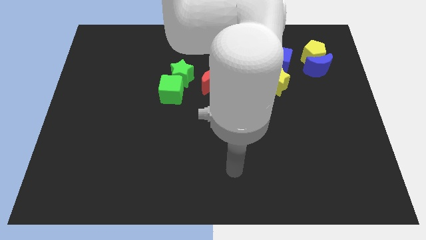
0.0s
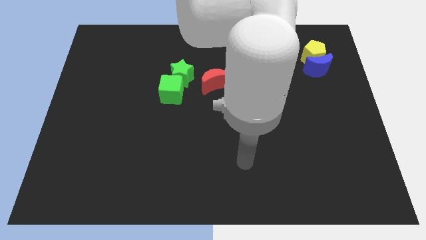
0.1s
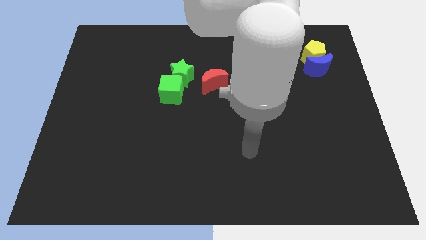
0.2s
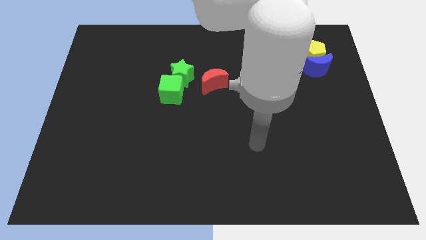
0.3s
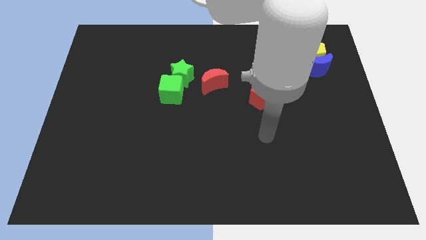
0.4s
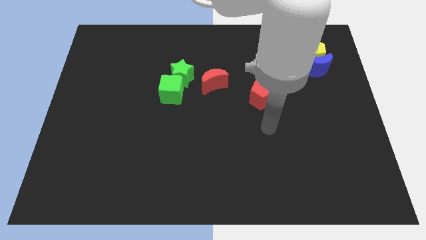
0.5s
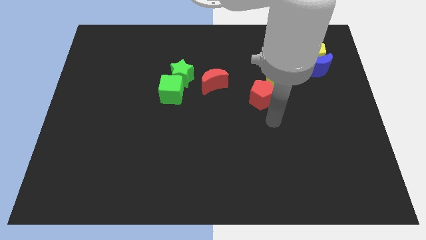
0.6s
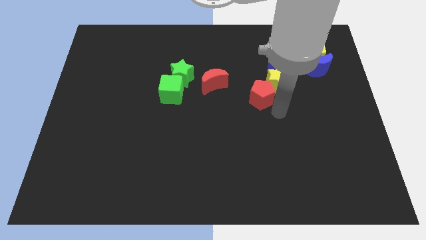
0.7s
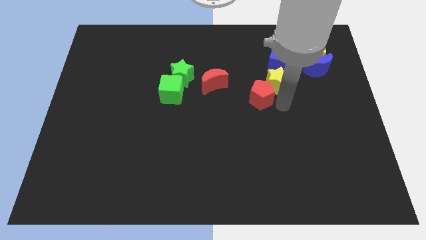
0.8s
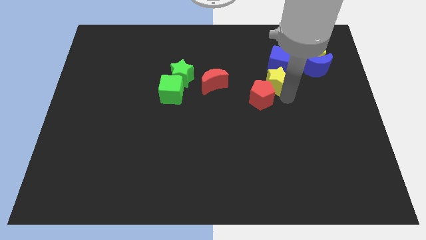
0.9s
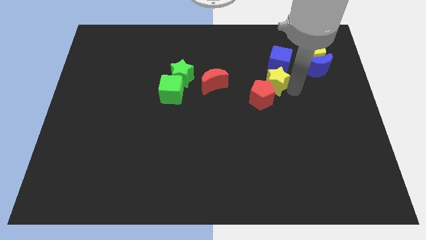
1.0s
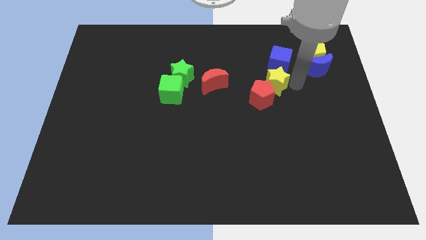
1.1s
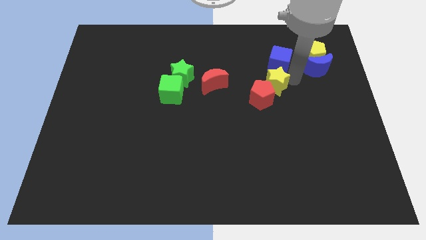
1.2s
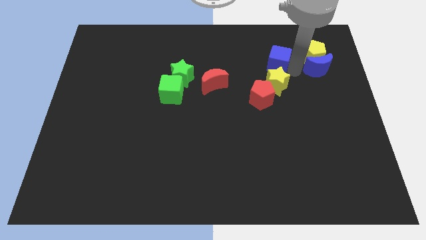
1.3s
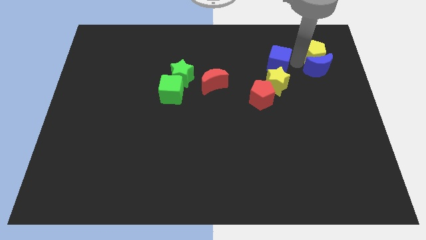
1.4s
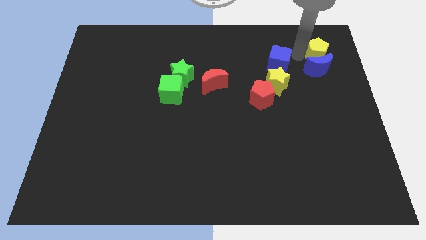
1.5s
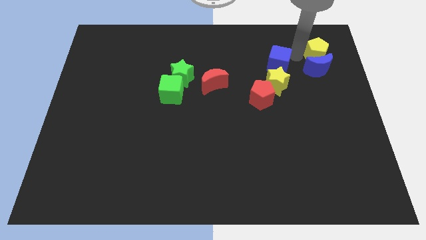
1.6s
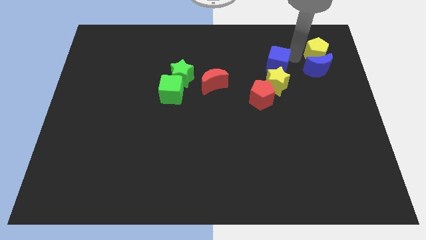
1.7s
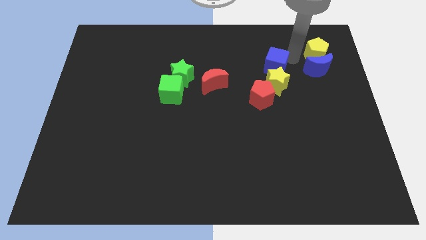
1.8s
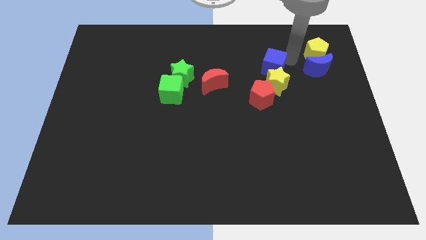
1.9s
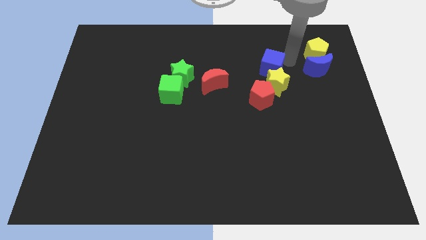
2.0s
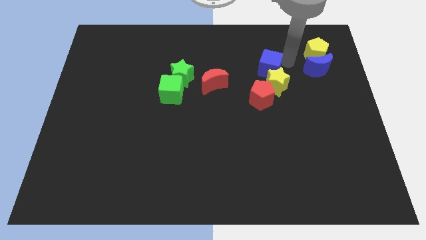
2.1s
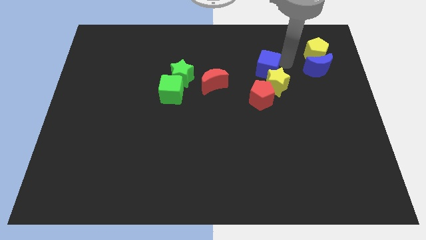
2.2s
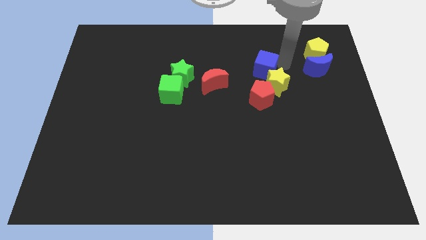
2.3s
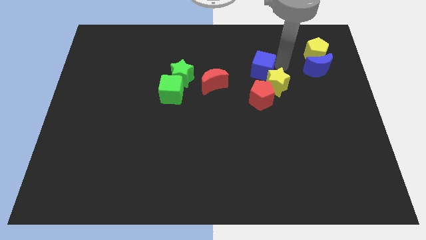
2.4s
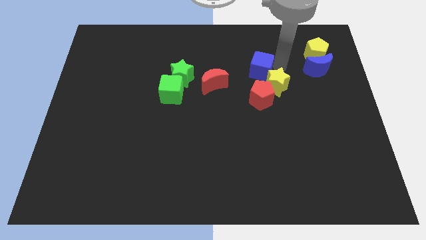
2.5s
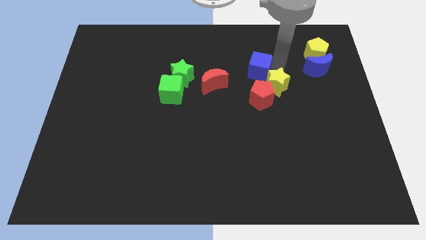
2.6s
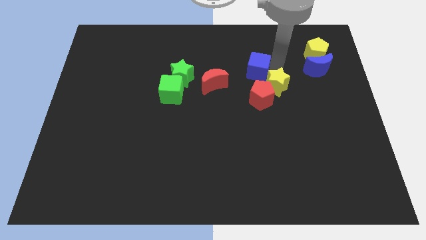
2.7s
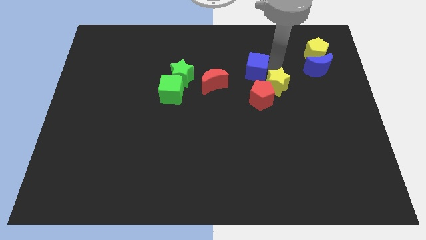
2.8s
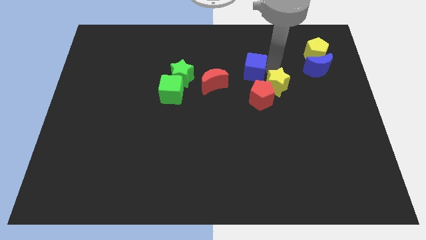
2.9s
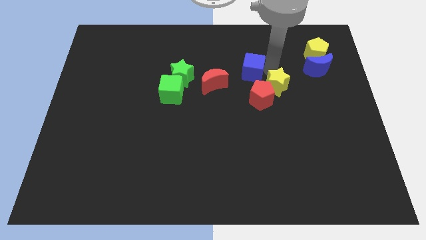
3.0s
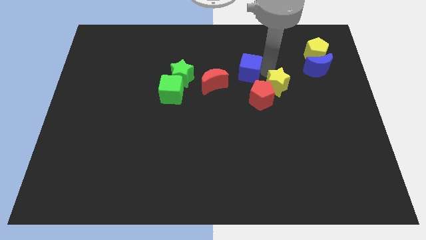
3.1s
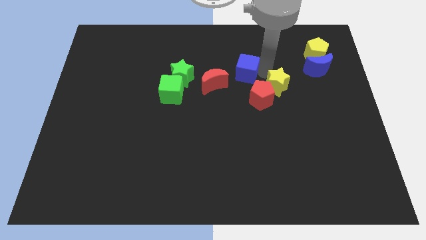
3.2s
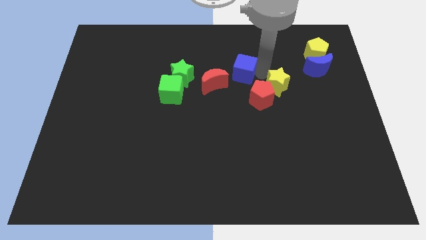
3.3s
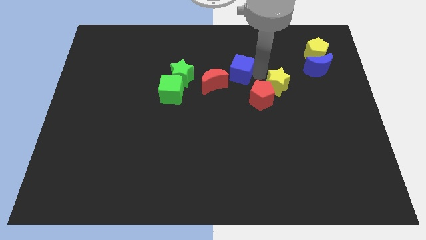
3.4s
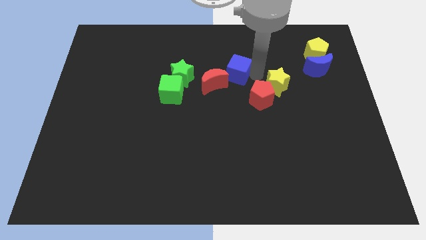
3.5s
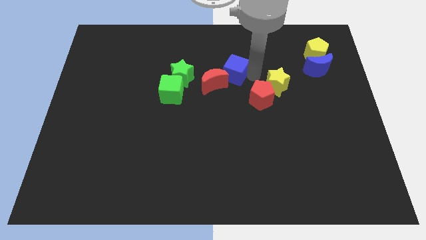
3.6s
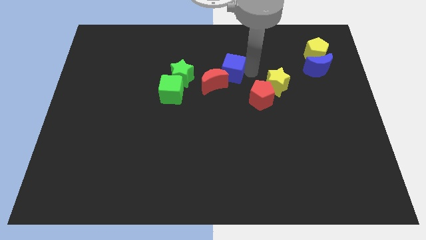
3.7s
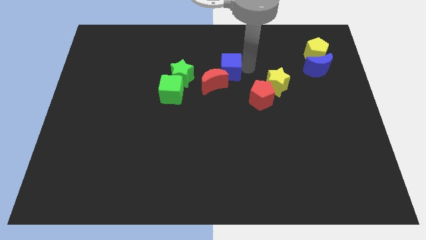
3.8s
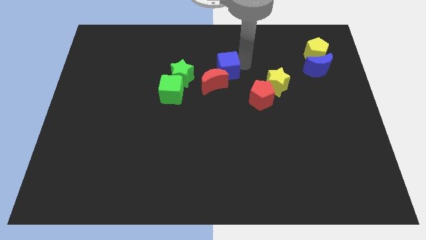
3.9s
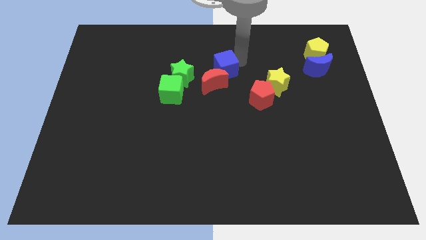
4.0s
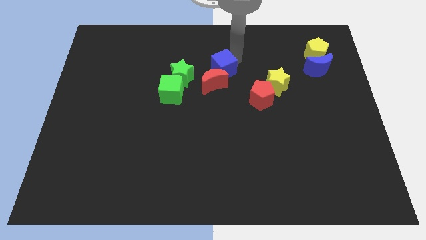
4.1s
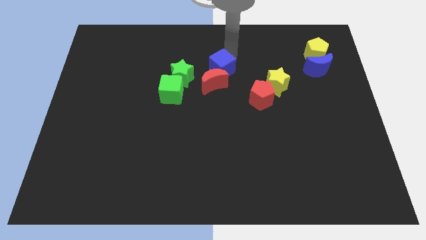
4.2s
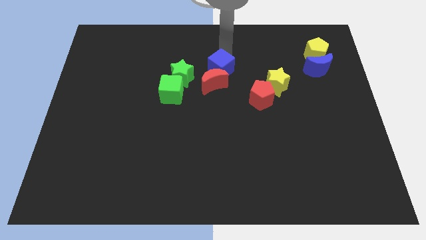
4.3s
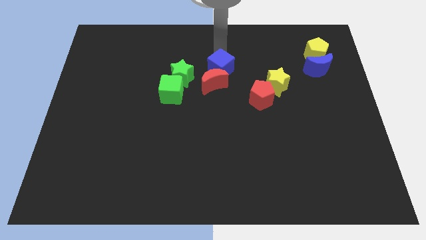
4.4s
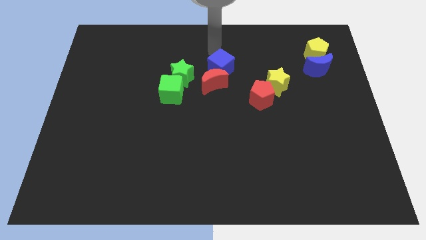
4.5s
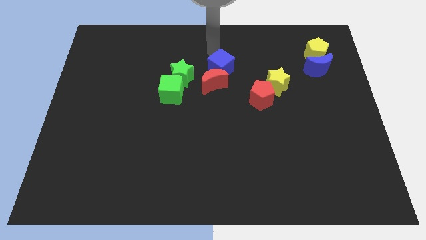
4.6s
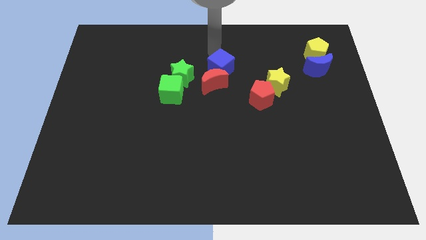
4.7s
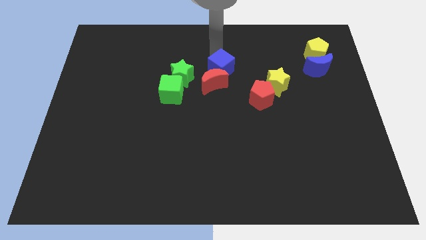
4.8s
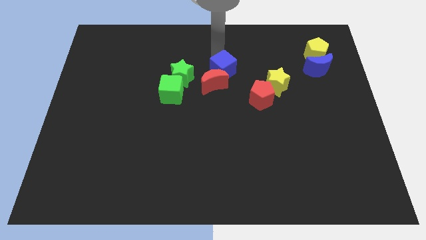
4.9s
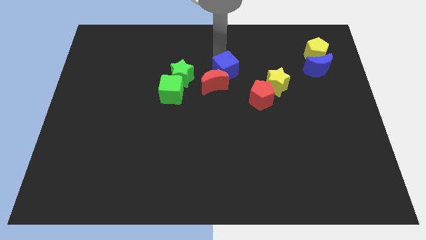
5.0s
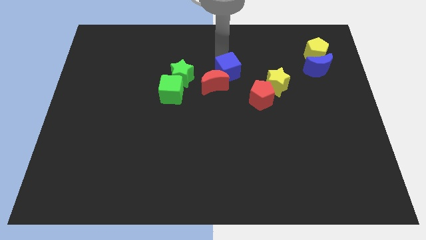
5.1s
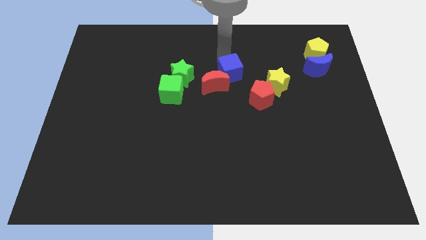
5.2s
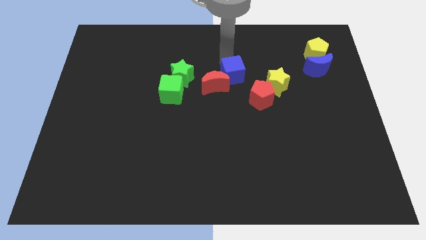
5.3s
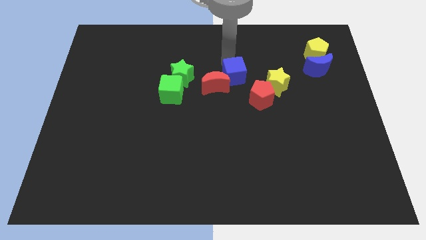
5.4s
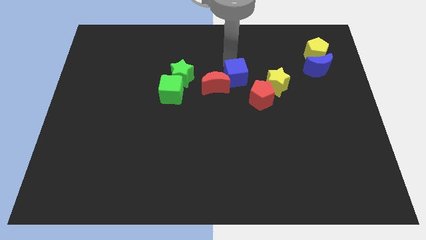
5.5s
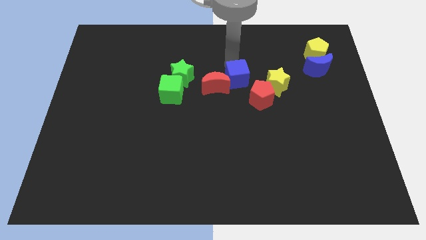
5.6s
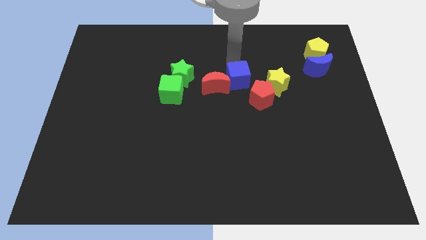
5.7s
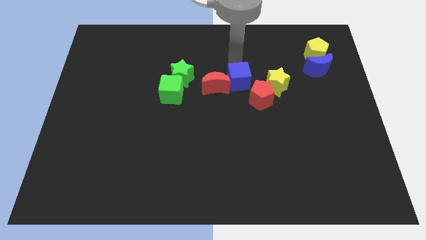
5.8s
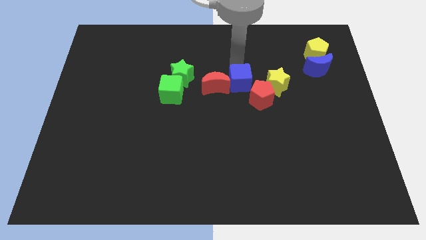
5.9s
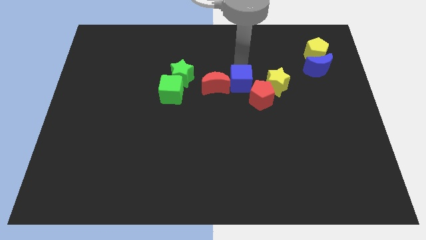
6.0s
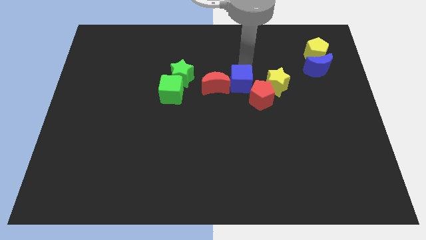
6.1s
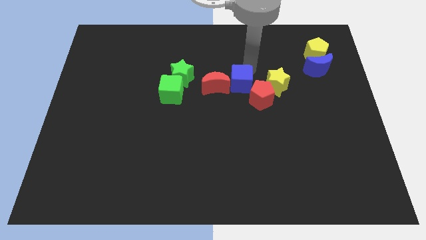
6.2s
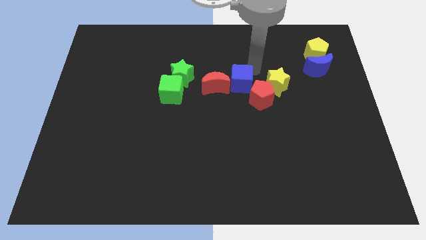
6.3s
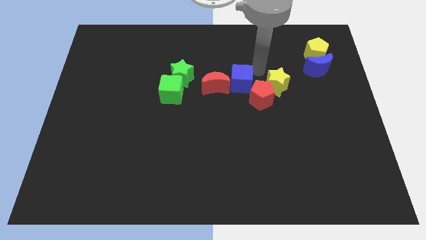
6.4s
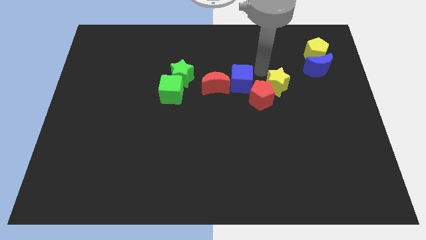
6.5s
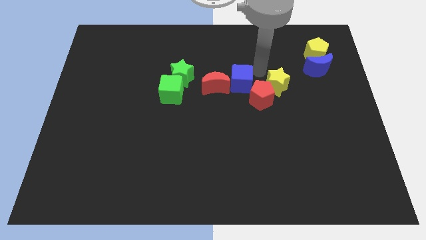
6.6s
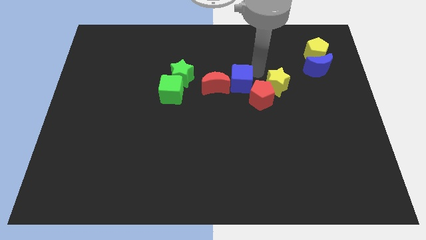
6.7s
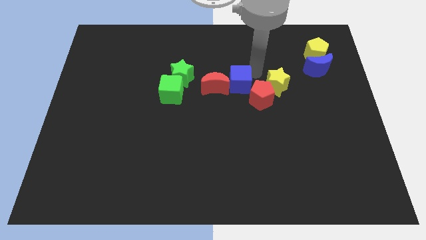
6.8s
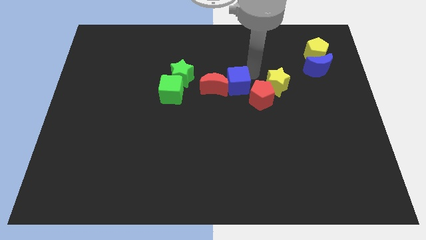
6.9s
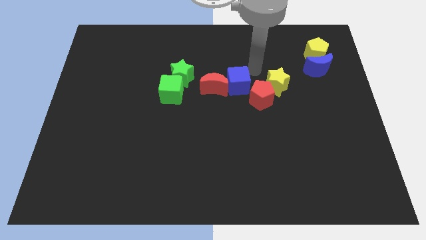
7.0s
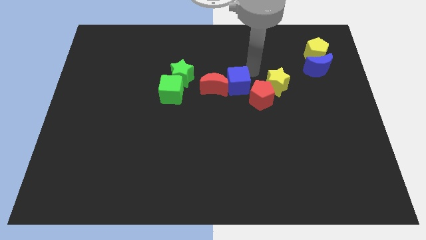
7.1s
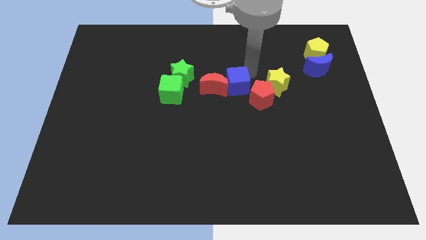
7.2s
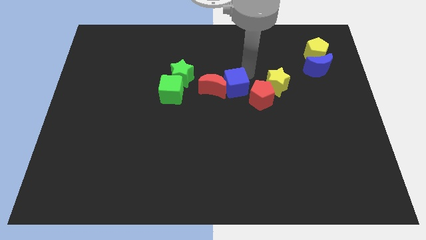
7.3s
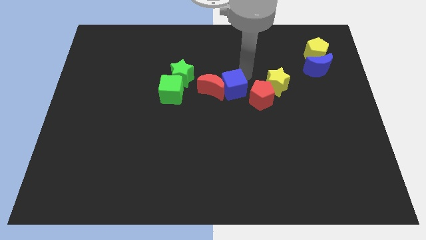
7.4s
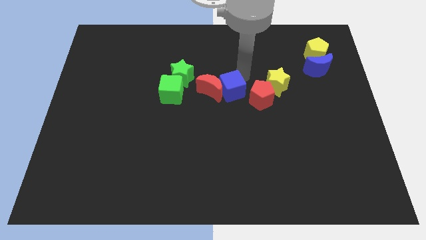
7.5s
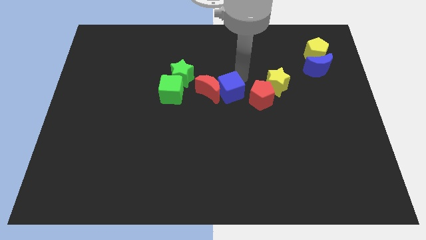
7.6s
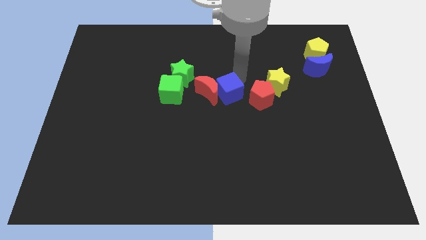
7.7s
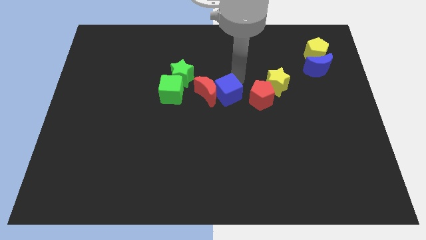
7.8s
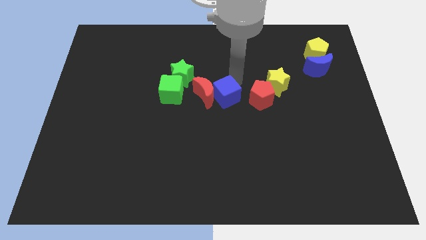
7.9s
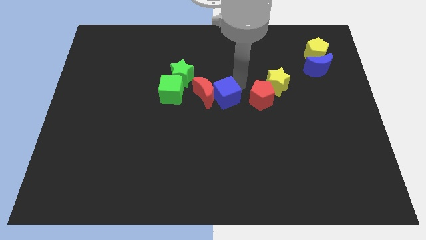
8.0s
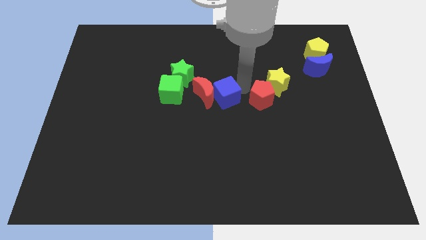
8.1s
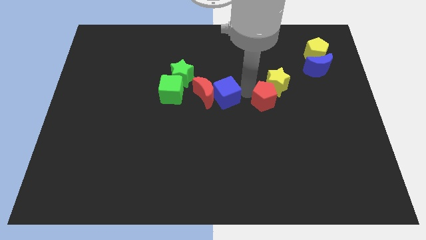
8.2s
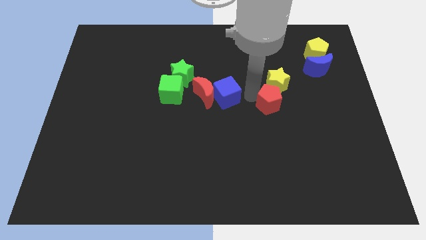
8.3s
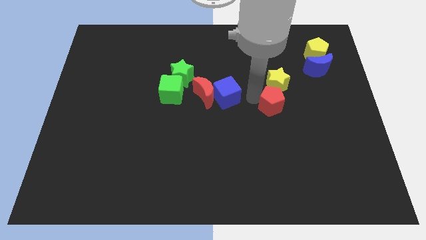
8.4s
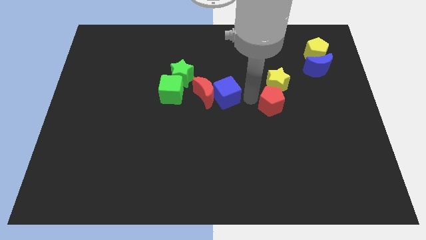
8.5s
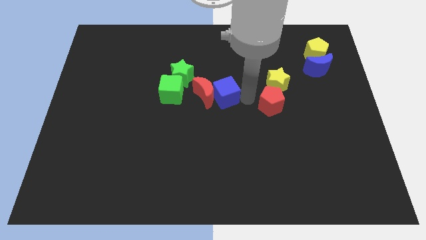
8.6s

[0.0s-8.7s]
move the blue cube to the bottom right of the green star
